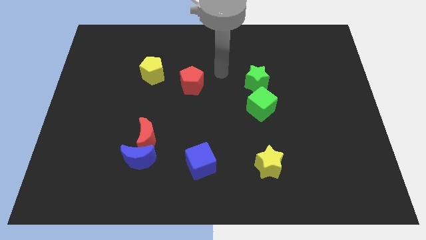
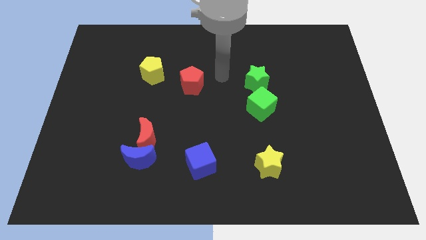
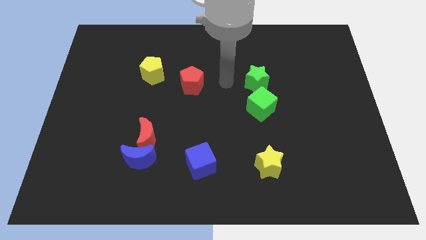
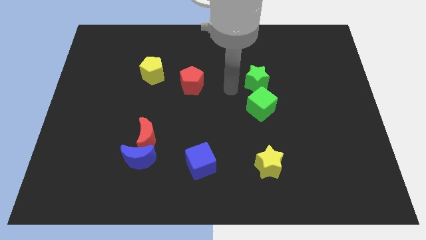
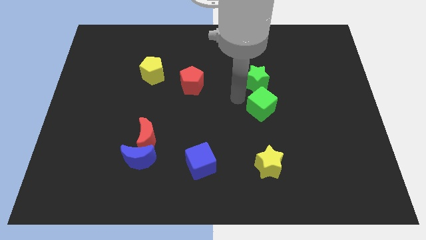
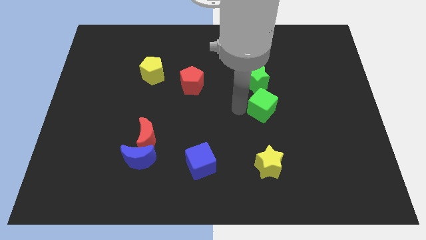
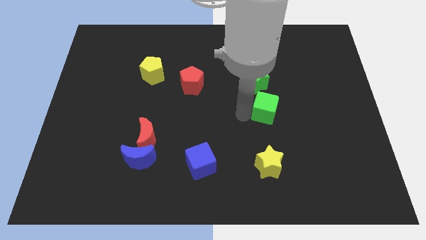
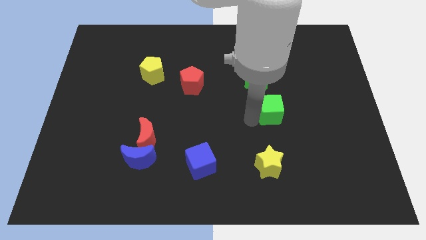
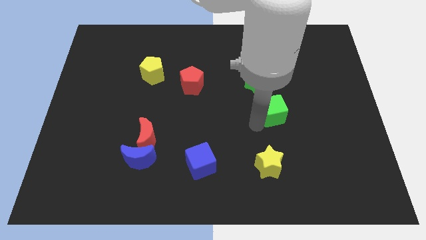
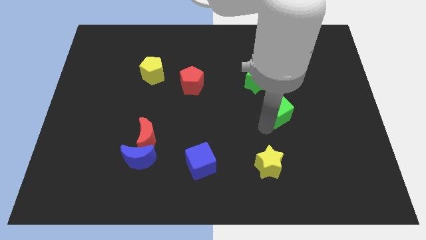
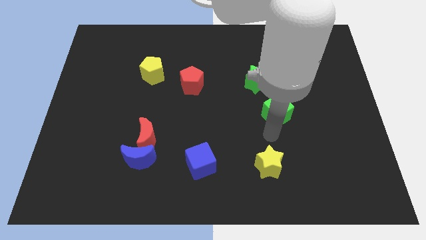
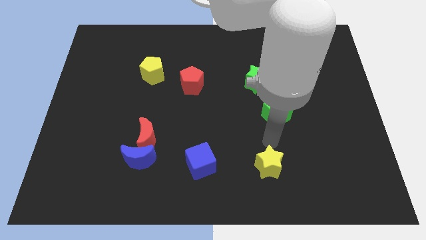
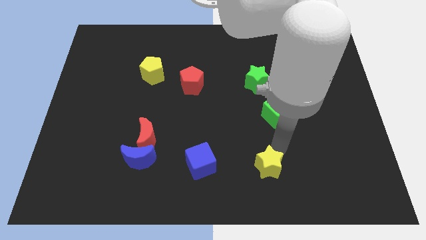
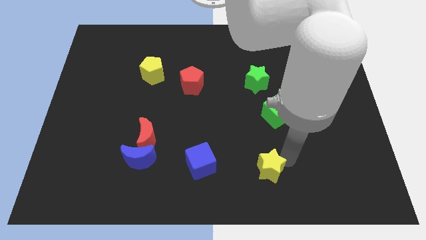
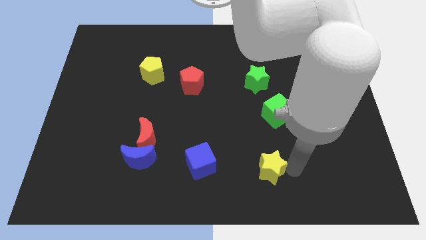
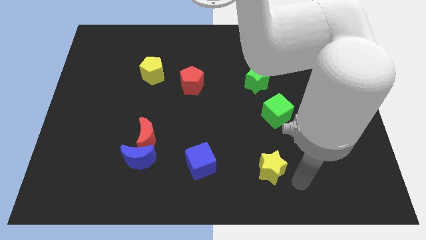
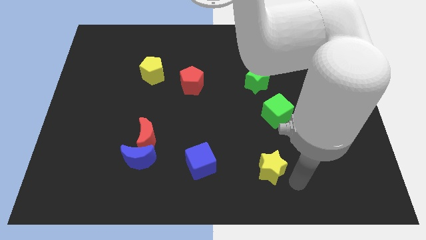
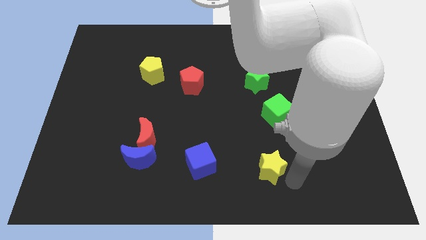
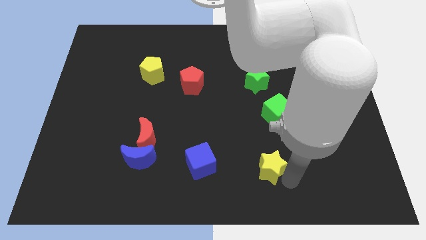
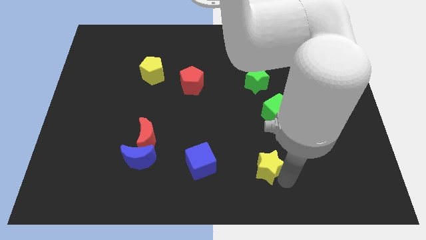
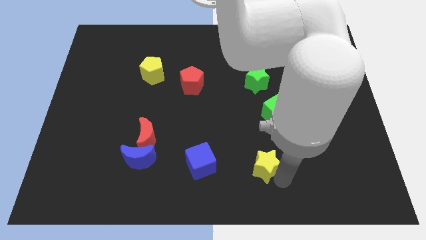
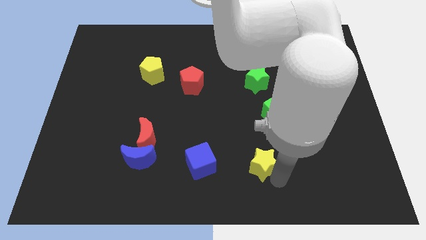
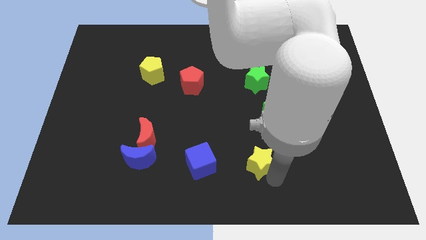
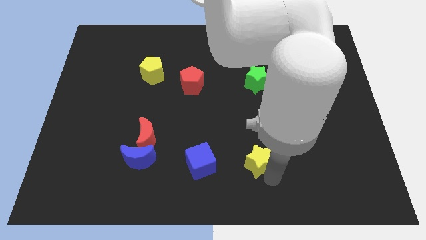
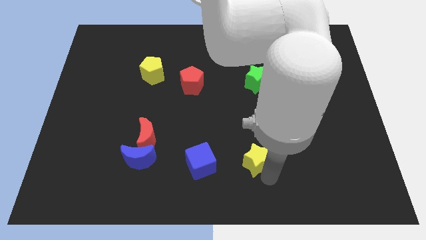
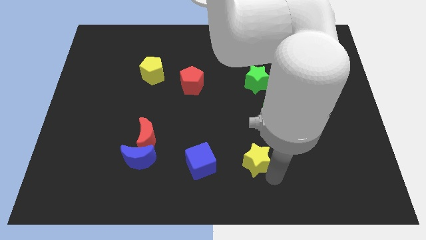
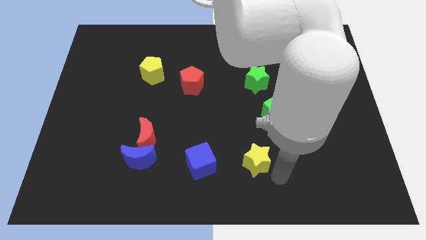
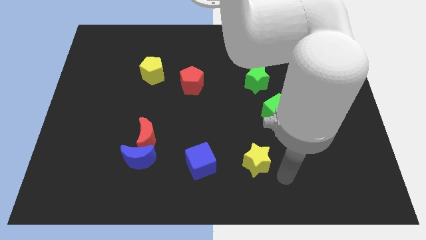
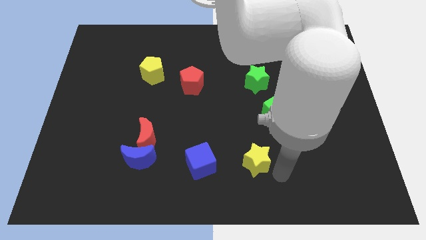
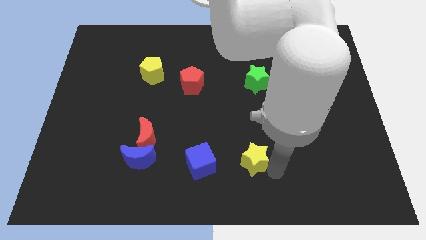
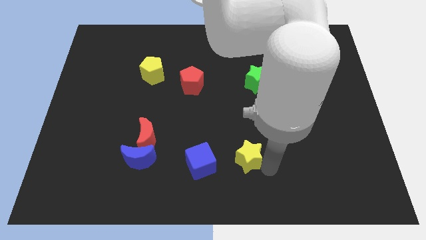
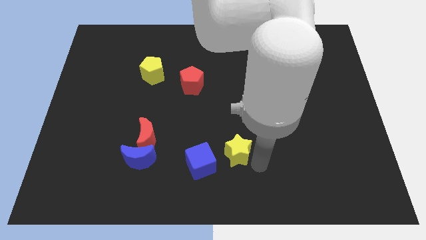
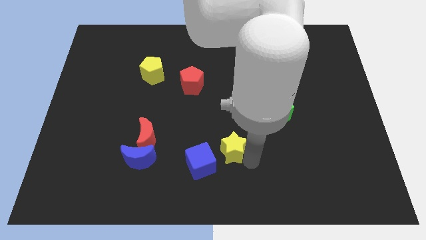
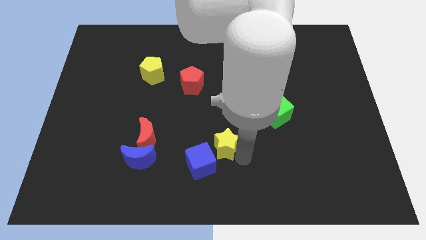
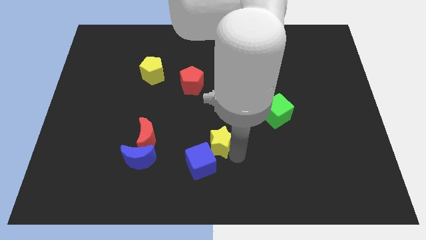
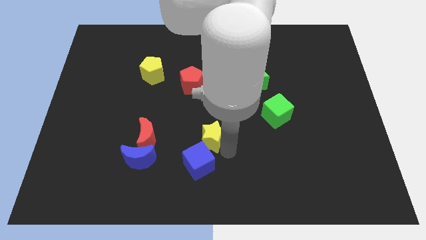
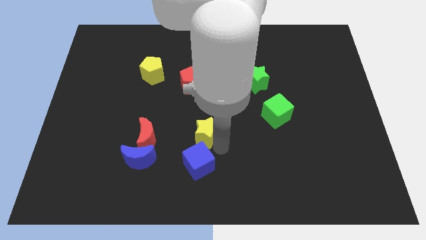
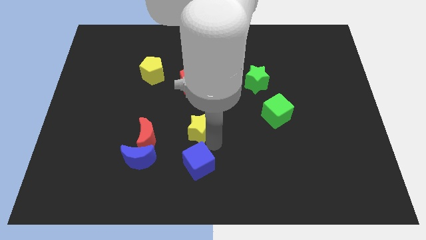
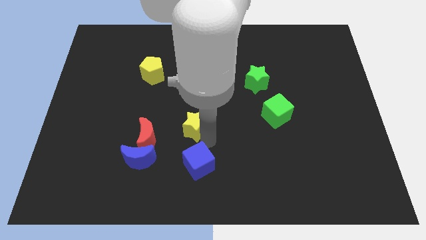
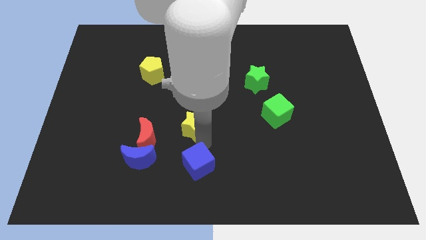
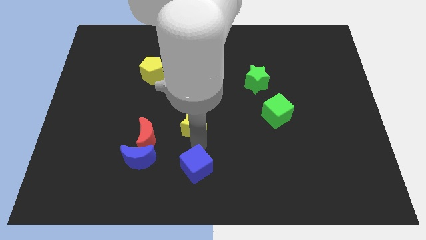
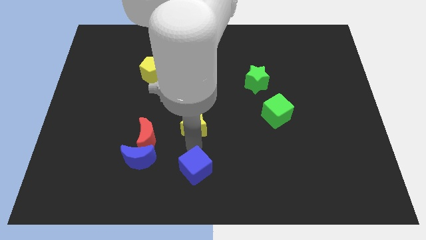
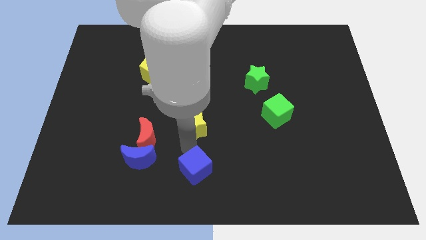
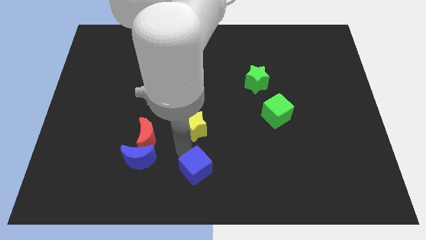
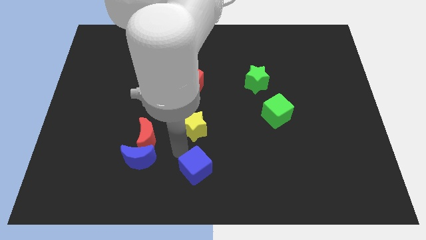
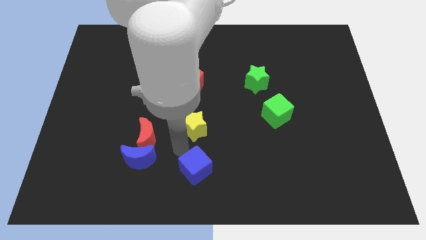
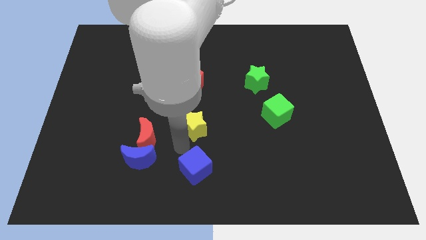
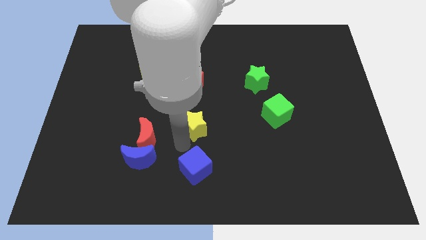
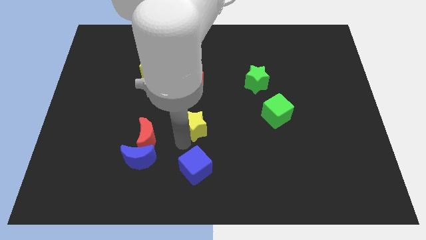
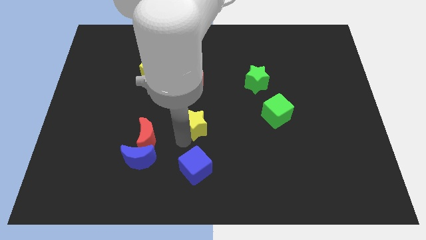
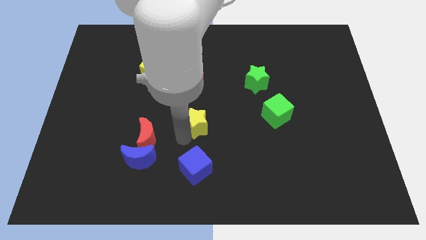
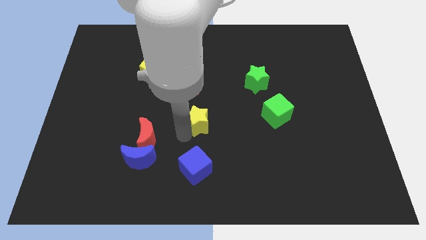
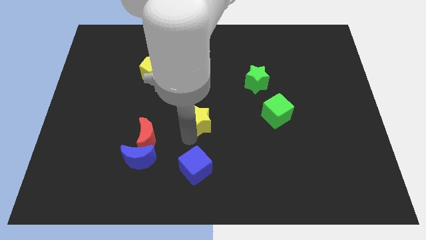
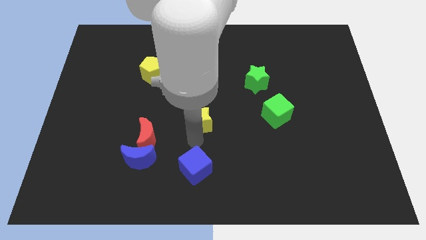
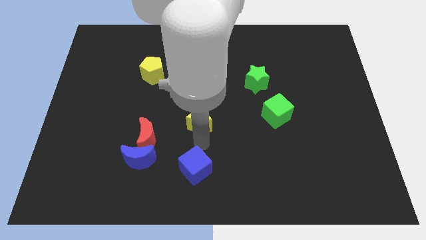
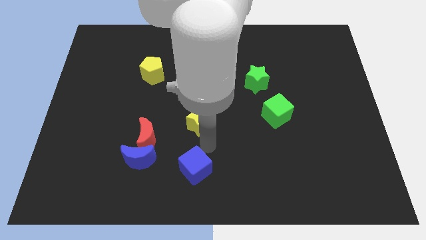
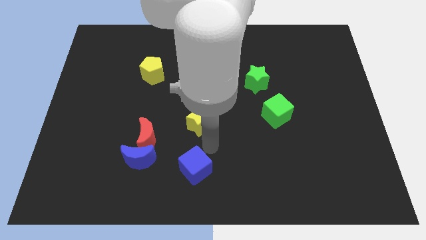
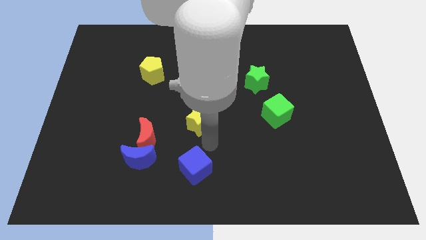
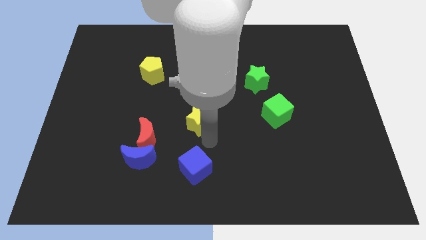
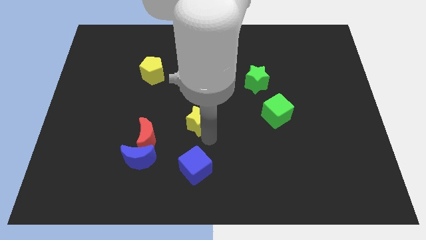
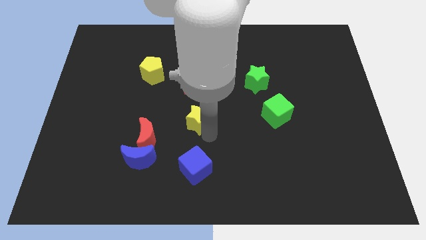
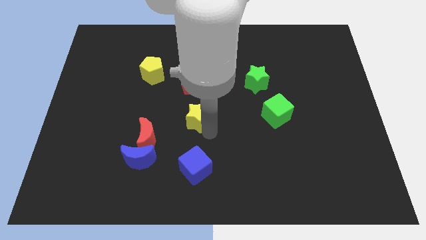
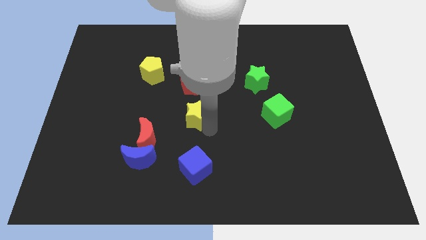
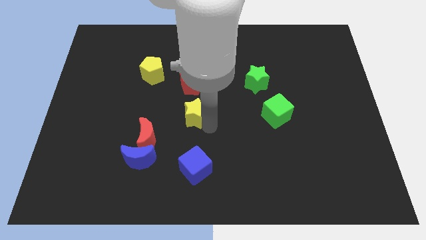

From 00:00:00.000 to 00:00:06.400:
push the yellow star up and then left

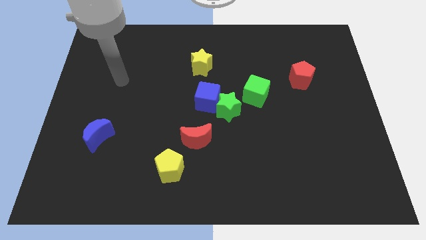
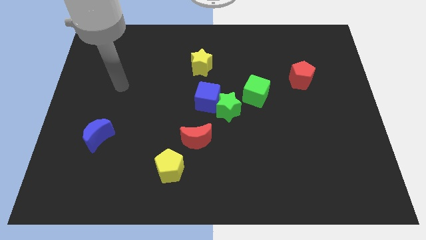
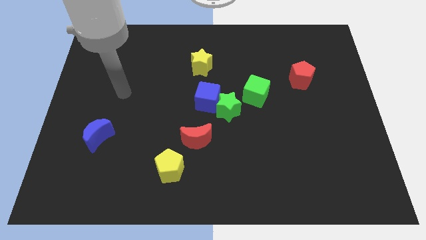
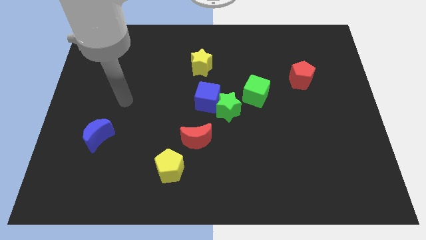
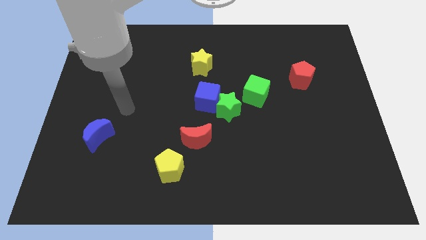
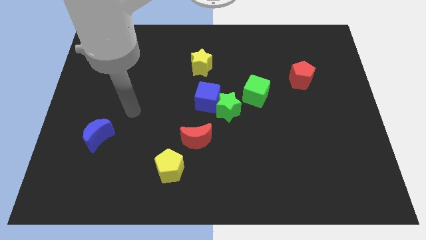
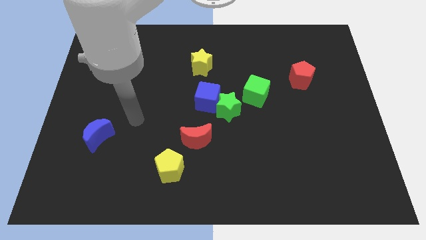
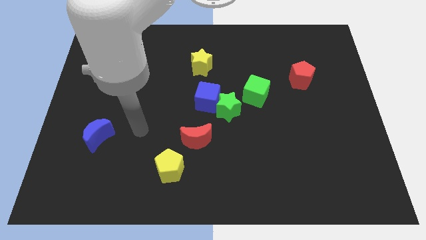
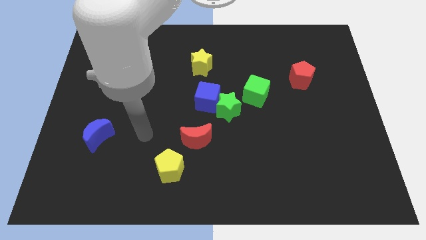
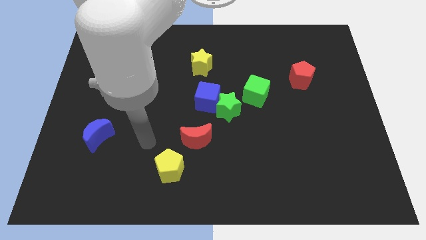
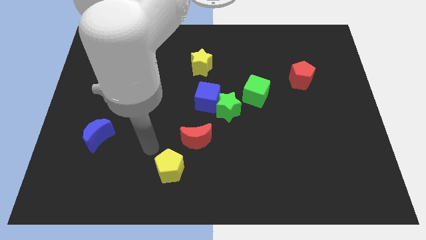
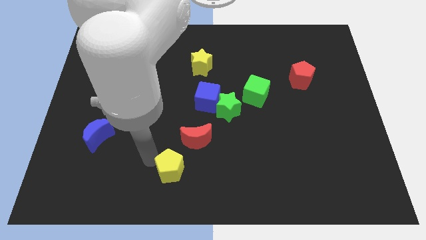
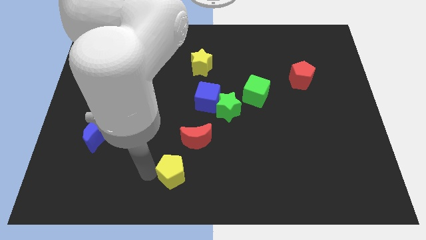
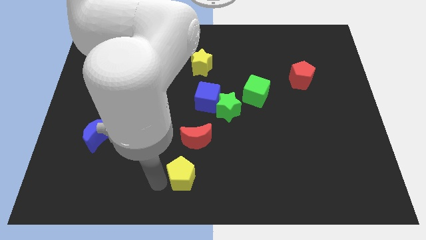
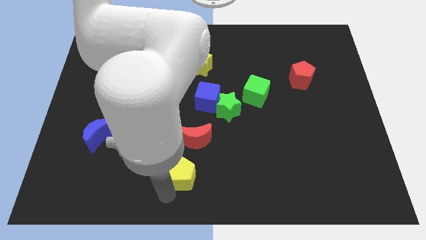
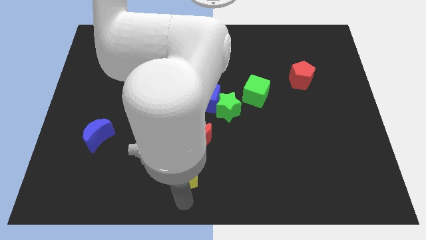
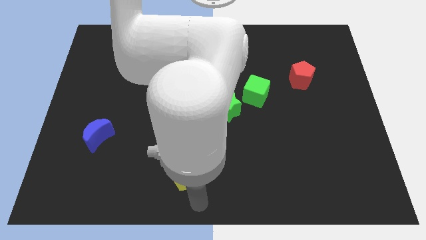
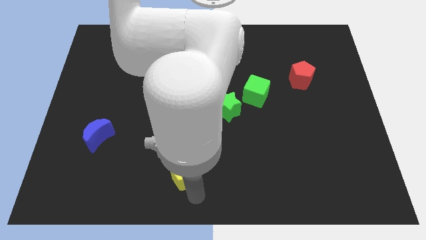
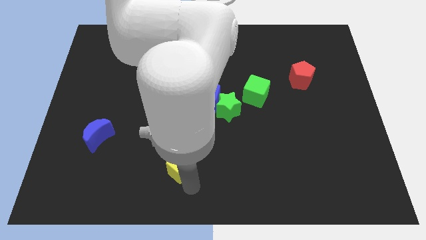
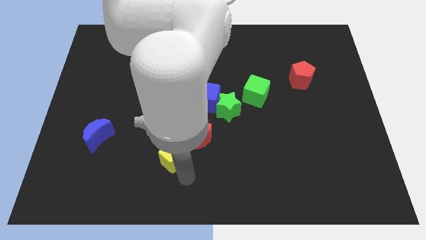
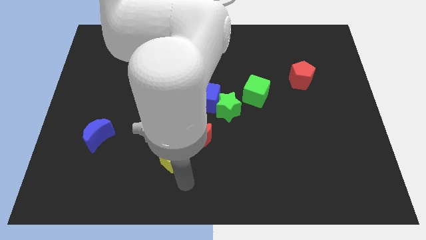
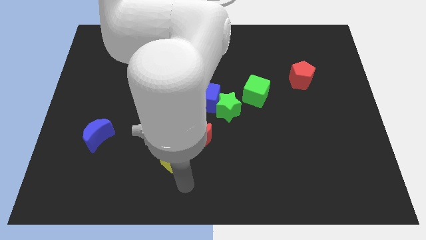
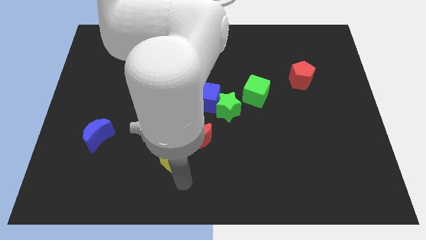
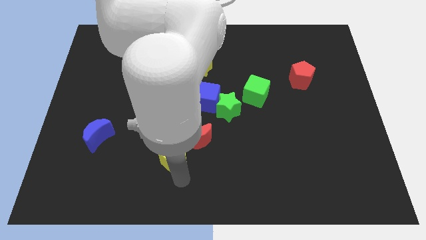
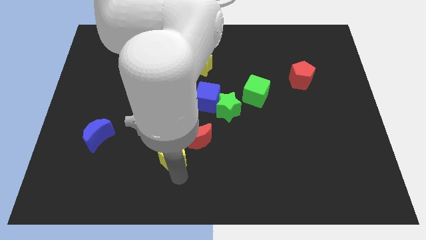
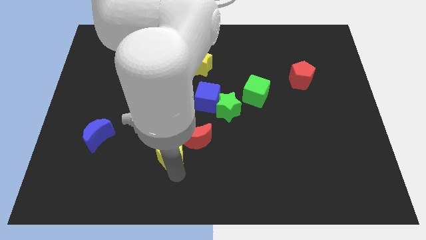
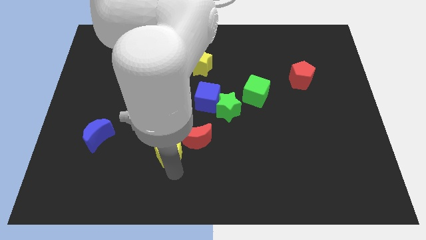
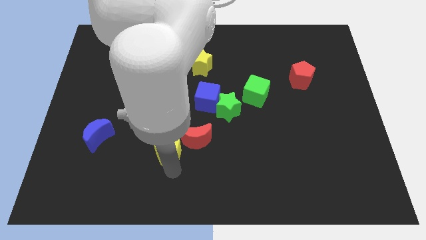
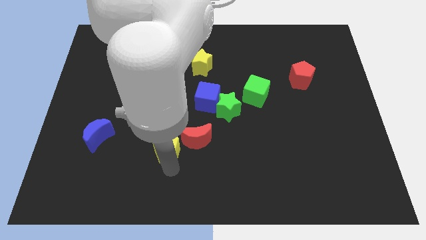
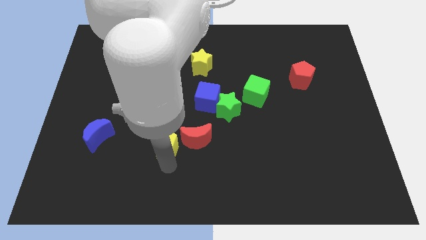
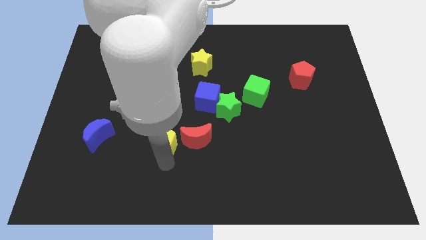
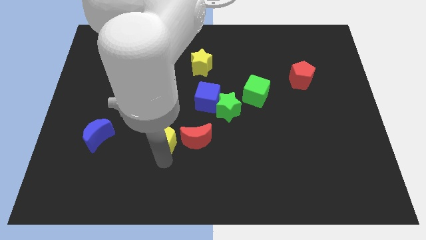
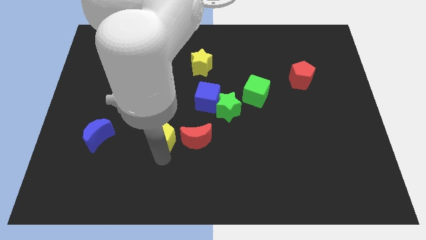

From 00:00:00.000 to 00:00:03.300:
move the yellow pentagon up somewhat
